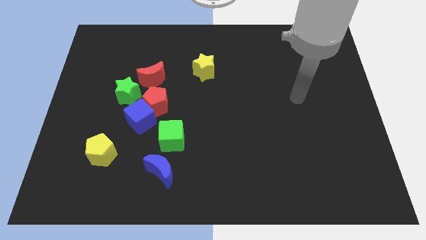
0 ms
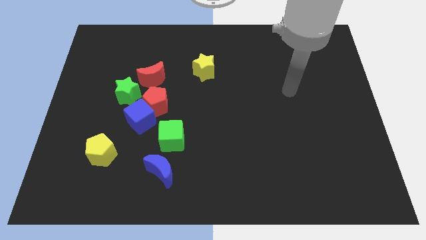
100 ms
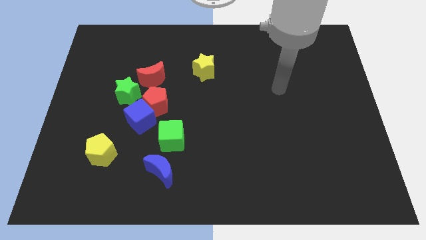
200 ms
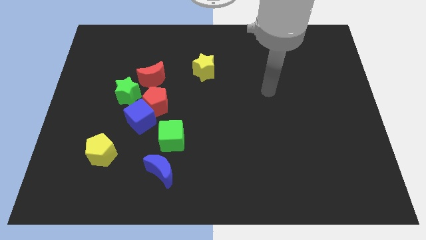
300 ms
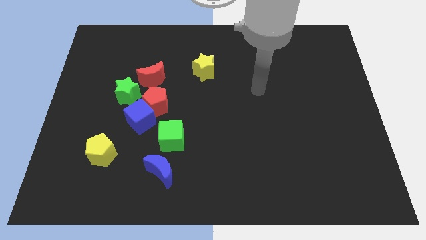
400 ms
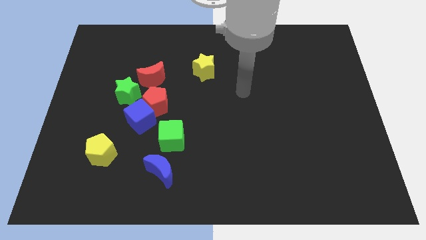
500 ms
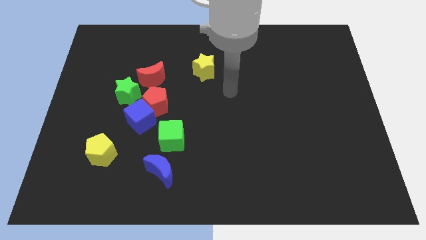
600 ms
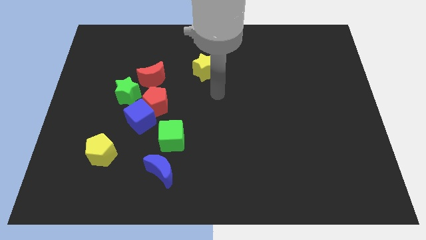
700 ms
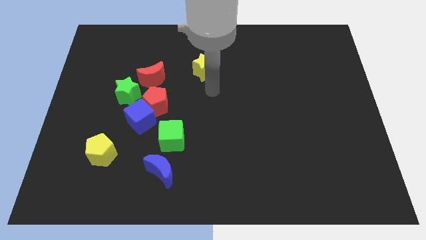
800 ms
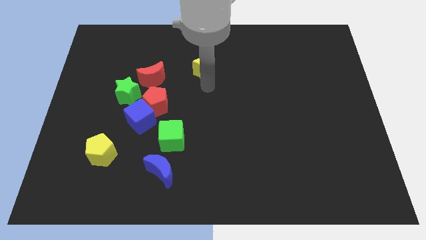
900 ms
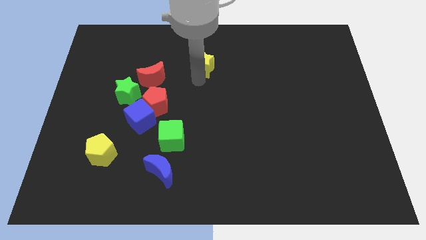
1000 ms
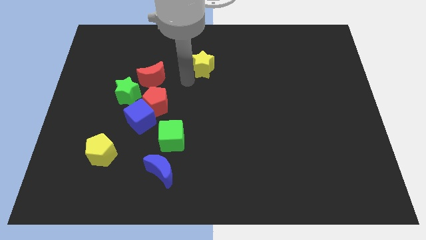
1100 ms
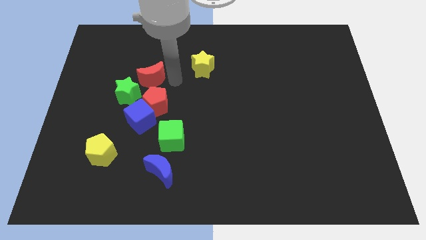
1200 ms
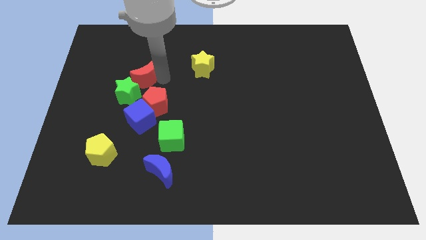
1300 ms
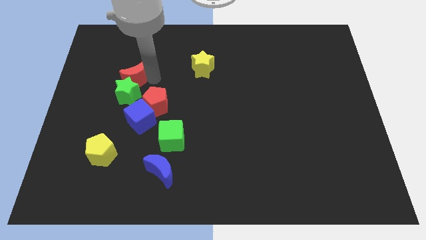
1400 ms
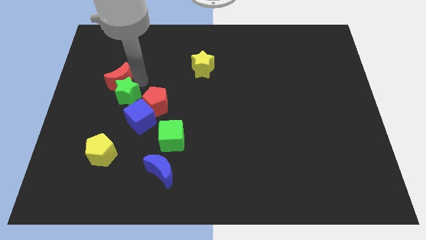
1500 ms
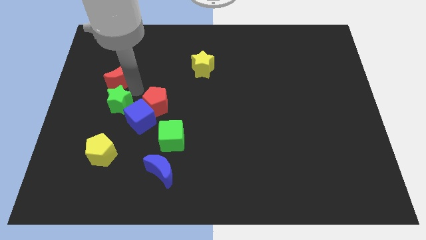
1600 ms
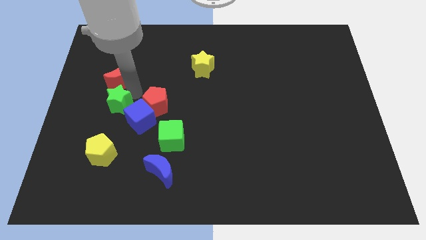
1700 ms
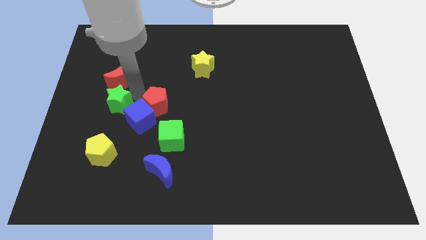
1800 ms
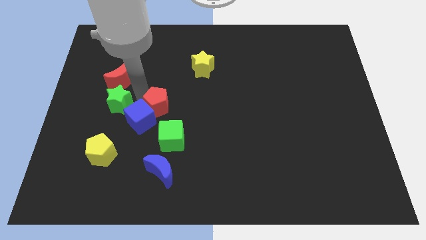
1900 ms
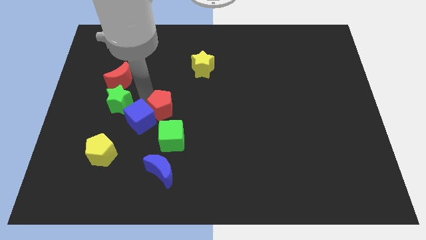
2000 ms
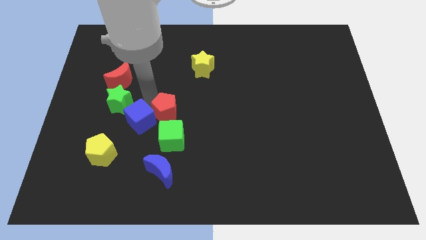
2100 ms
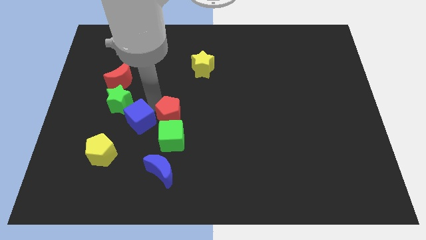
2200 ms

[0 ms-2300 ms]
move the red pentagon away from the group of blocks

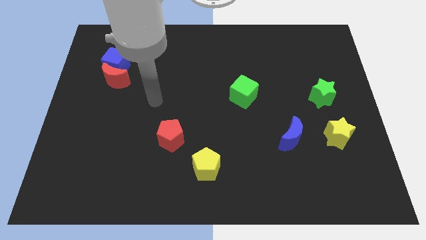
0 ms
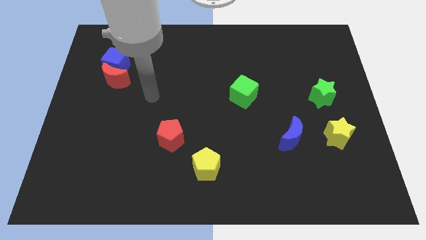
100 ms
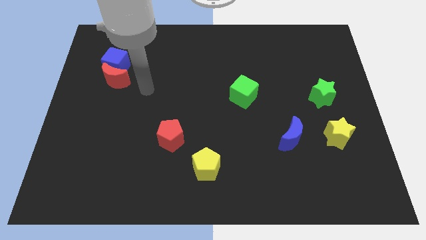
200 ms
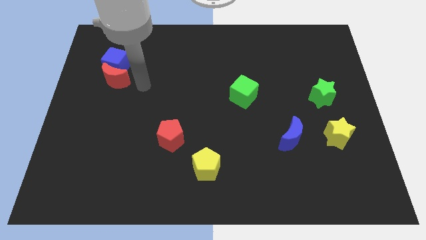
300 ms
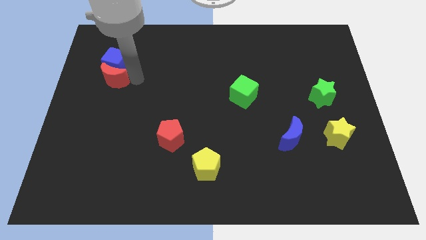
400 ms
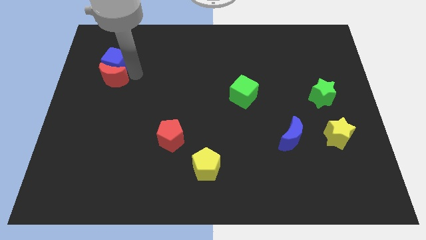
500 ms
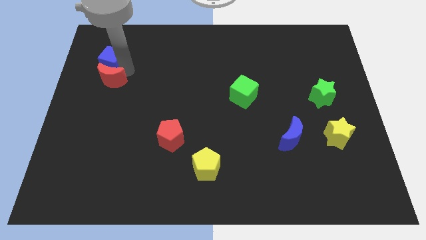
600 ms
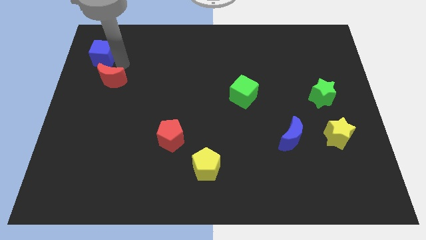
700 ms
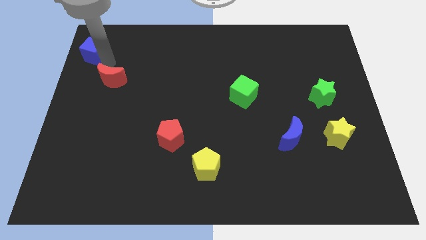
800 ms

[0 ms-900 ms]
pull the red moon apart from the blue cube

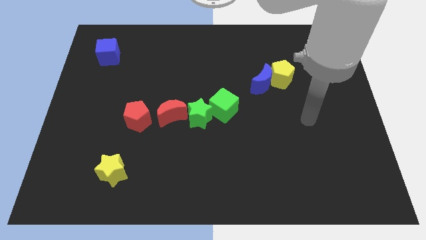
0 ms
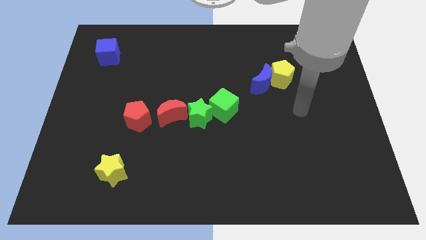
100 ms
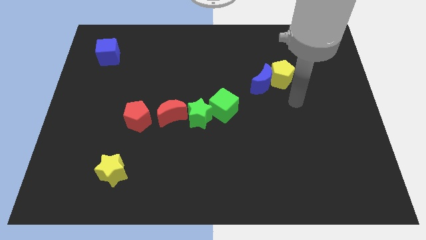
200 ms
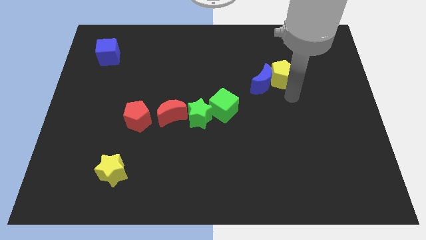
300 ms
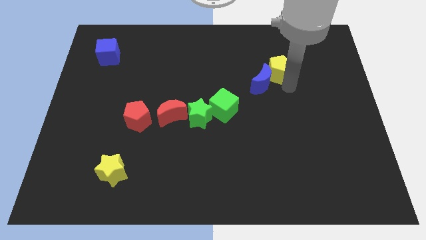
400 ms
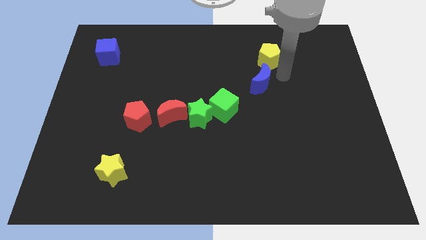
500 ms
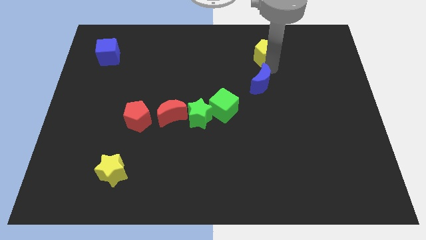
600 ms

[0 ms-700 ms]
separate the blue moon from the yellow pentagon

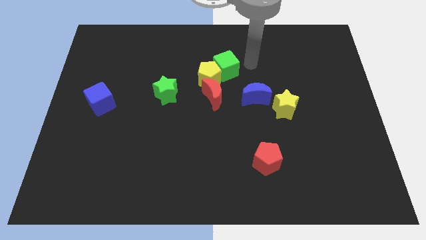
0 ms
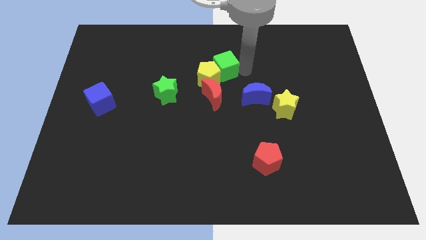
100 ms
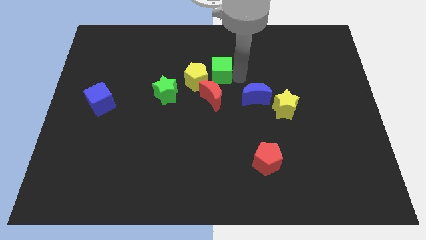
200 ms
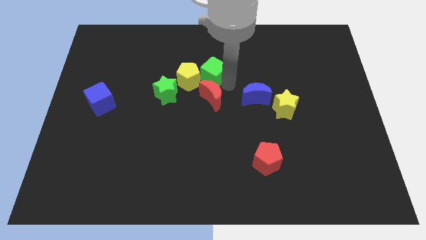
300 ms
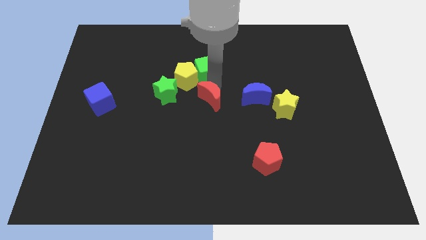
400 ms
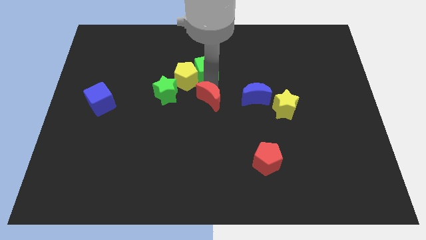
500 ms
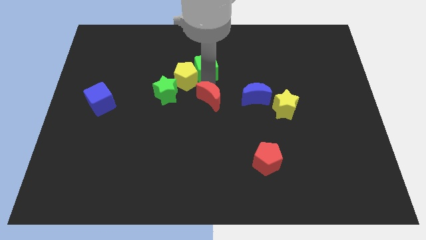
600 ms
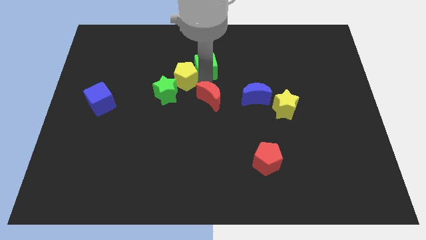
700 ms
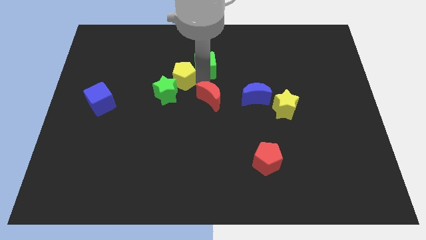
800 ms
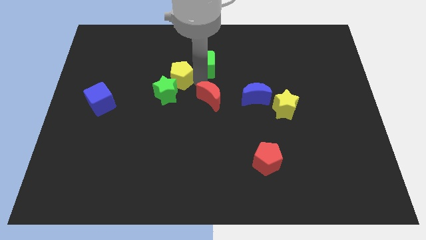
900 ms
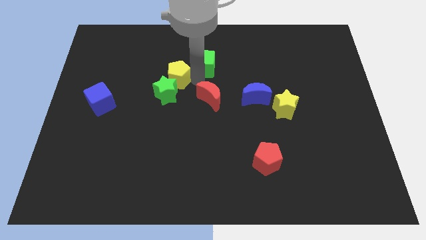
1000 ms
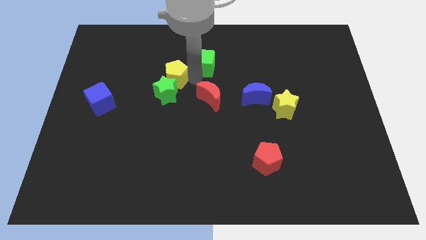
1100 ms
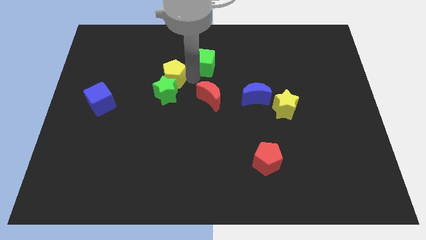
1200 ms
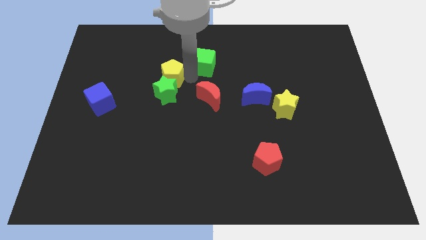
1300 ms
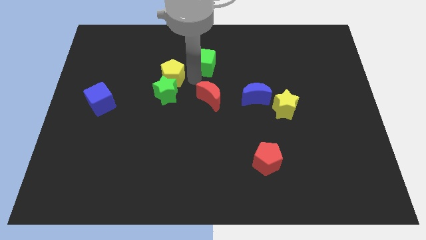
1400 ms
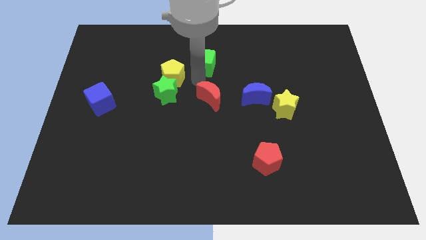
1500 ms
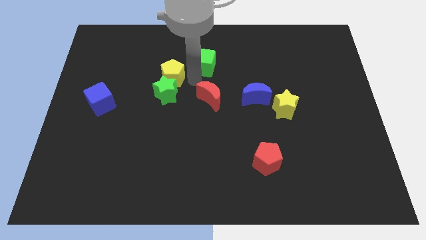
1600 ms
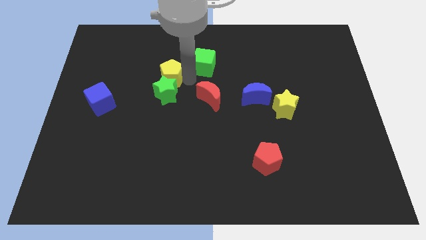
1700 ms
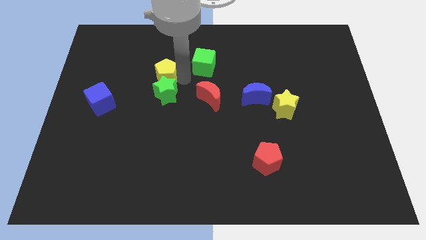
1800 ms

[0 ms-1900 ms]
pull the yellow pentagon apart from the green cube and red moon

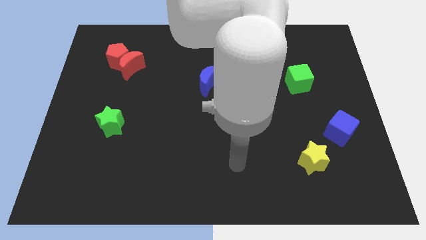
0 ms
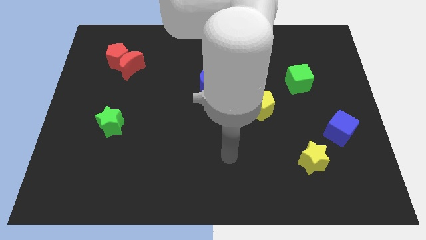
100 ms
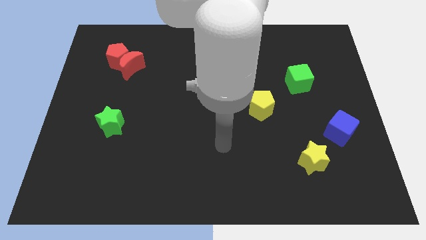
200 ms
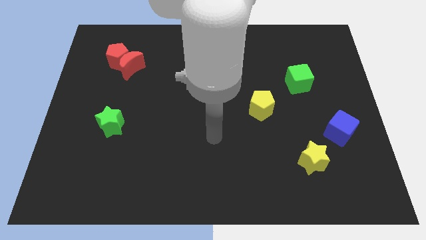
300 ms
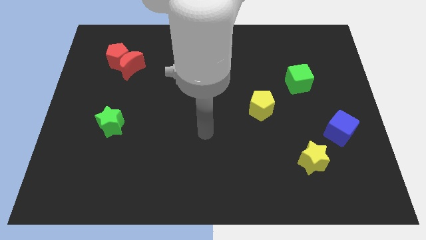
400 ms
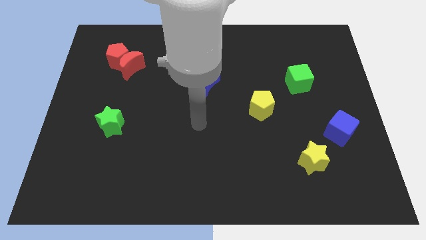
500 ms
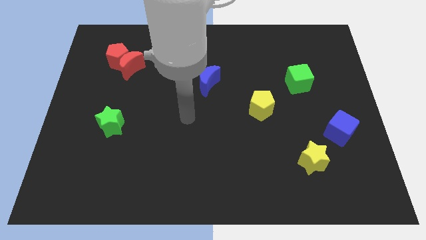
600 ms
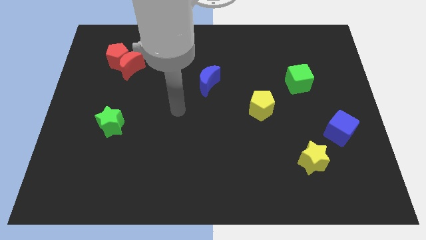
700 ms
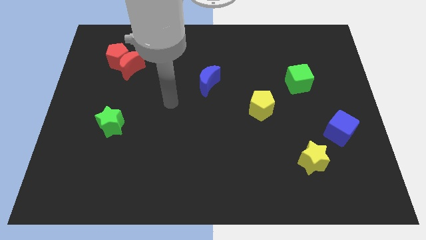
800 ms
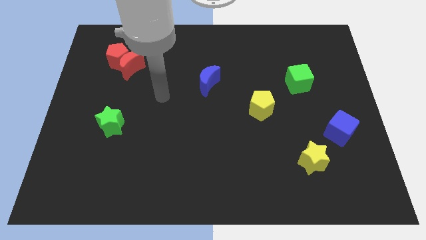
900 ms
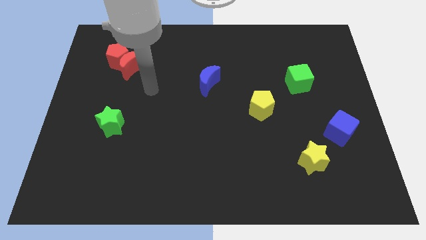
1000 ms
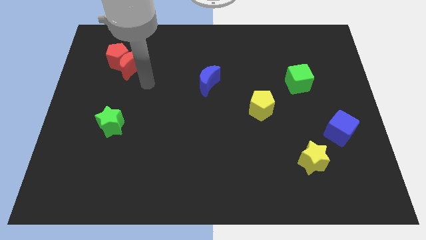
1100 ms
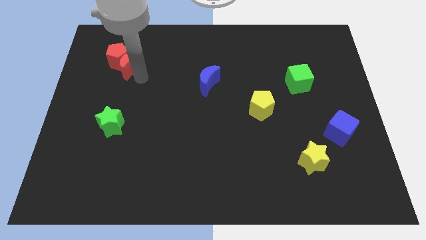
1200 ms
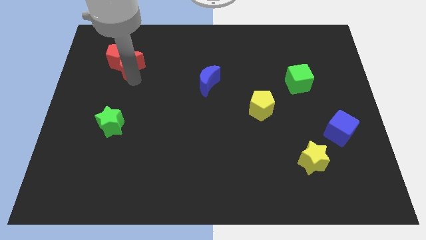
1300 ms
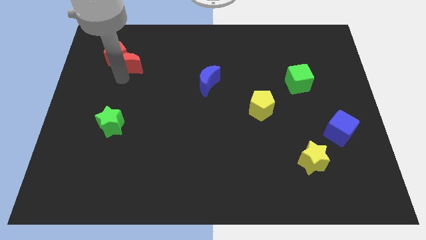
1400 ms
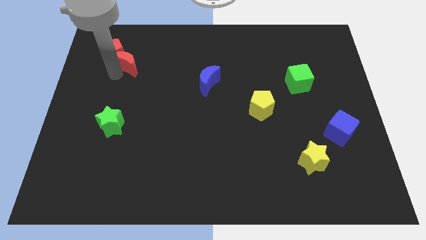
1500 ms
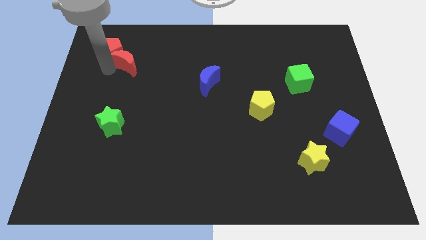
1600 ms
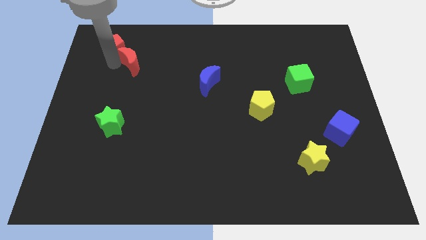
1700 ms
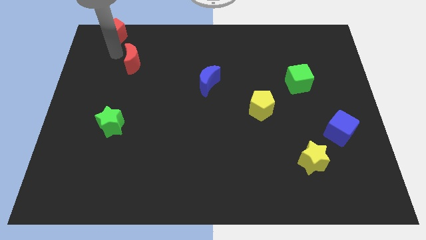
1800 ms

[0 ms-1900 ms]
move the red moon away from the red pentagon

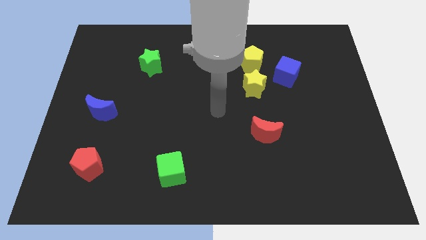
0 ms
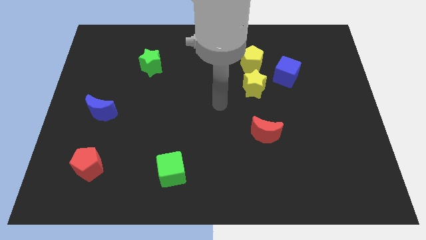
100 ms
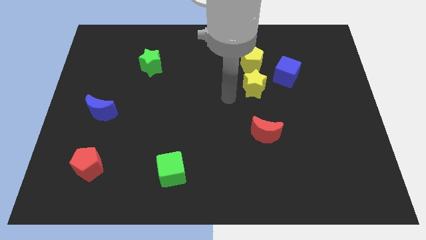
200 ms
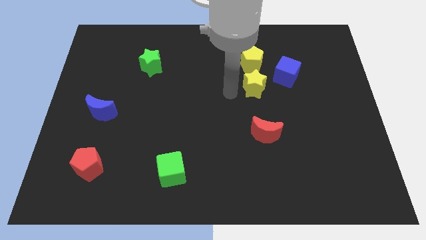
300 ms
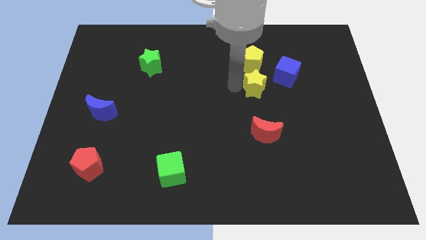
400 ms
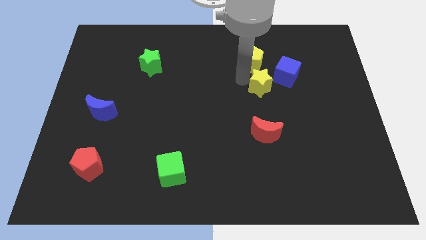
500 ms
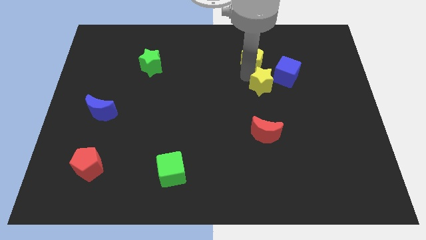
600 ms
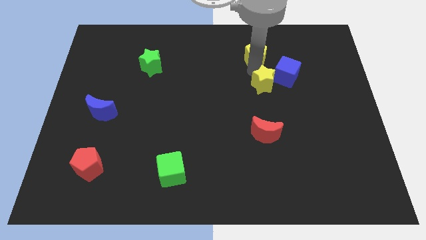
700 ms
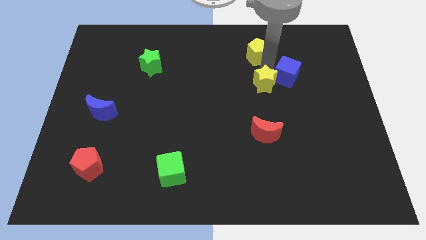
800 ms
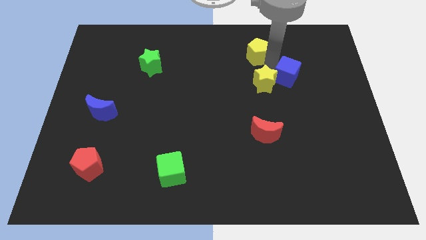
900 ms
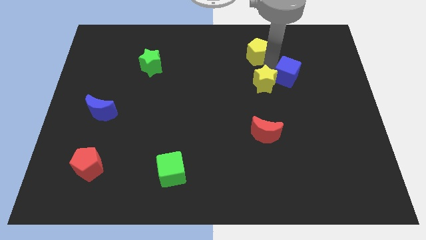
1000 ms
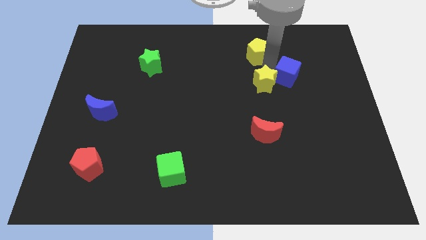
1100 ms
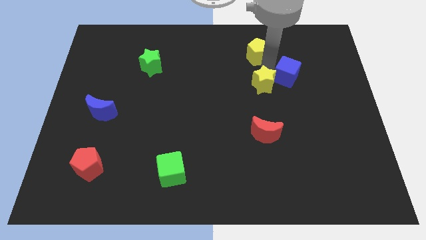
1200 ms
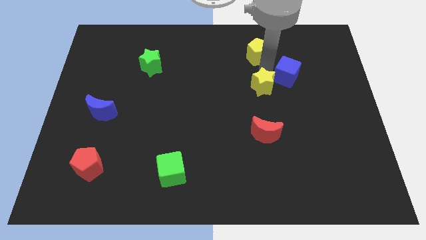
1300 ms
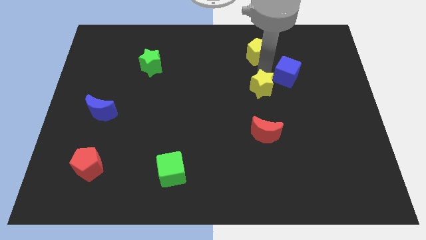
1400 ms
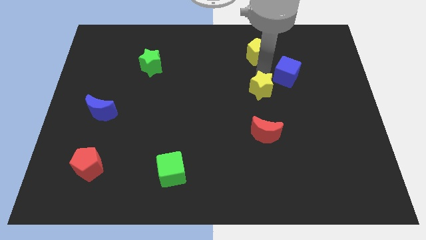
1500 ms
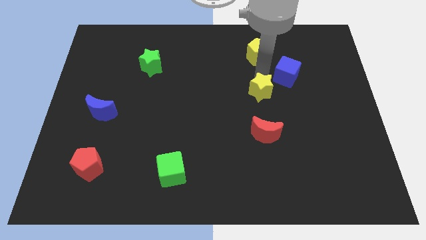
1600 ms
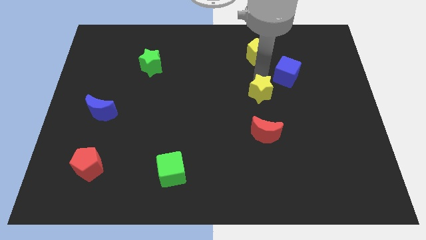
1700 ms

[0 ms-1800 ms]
pull the yellow star apart from the yellow pentagon and blue cube
